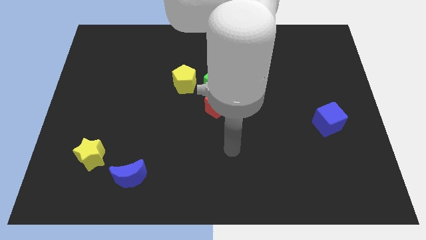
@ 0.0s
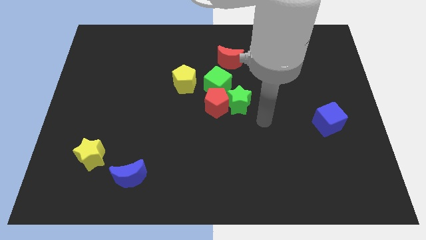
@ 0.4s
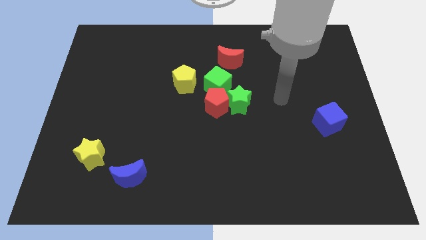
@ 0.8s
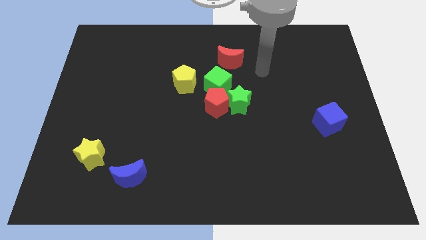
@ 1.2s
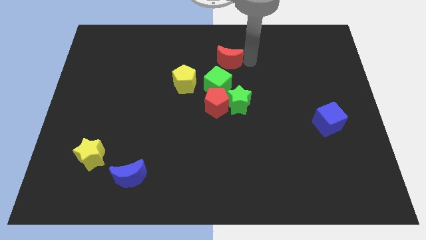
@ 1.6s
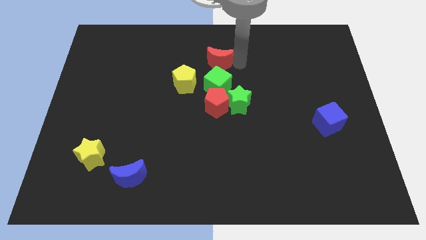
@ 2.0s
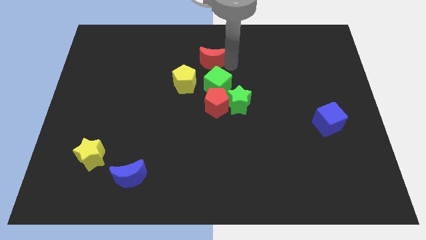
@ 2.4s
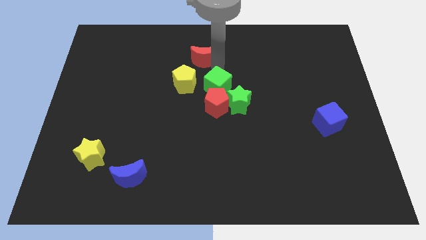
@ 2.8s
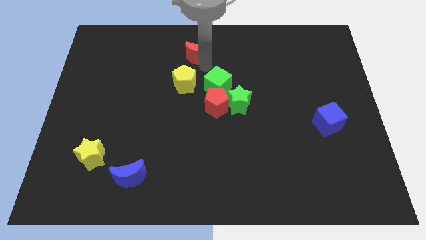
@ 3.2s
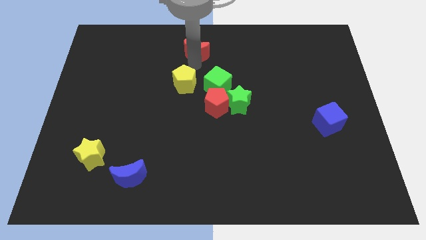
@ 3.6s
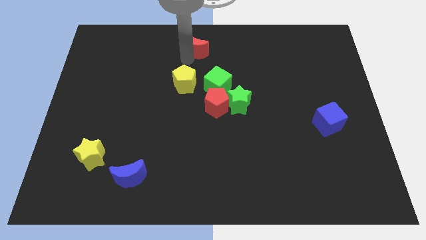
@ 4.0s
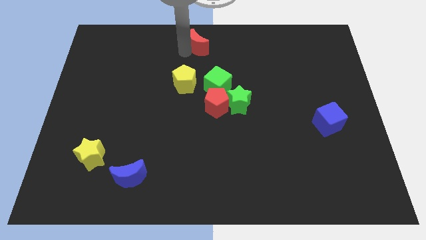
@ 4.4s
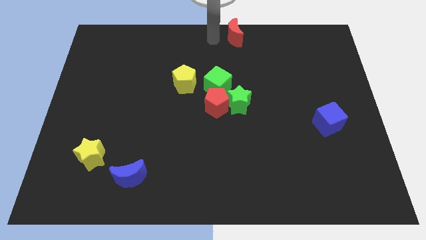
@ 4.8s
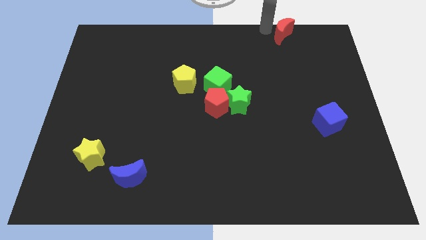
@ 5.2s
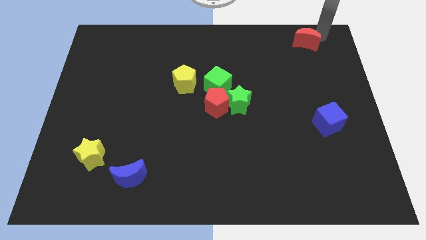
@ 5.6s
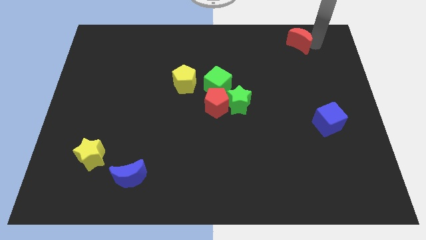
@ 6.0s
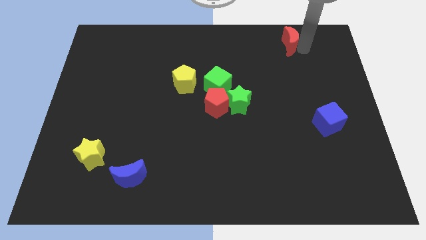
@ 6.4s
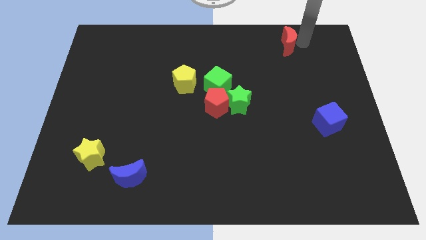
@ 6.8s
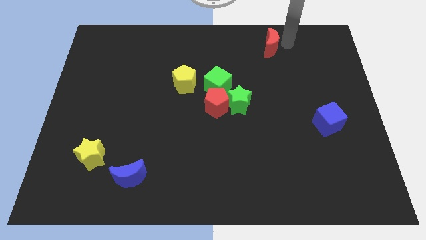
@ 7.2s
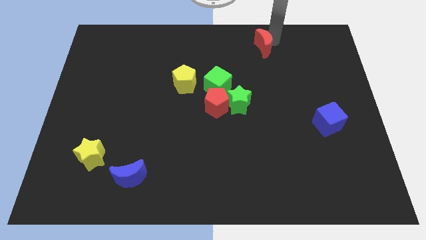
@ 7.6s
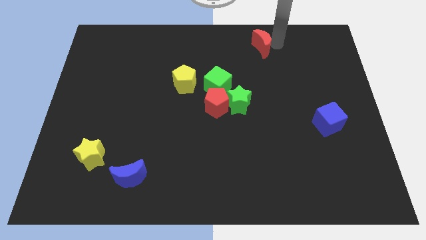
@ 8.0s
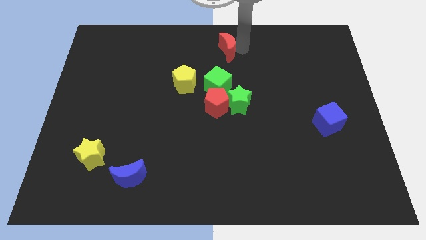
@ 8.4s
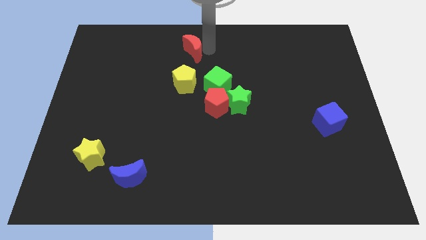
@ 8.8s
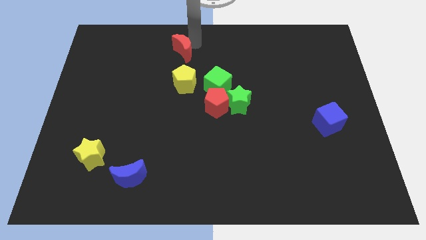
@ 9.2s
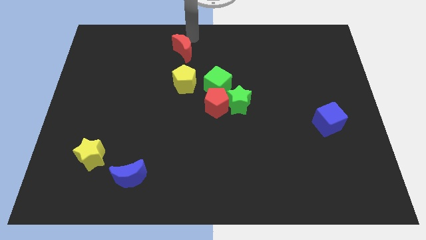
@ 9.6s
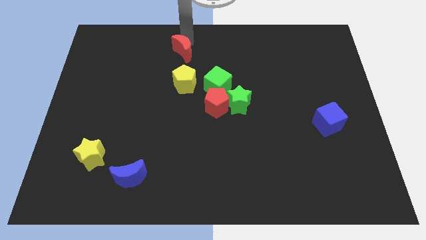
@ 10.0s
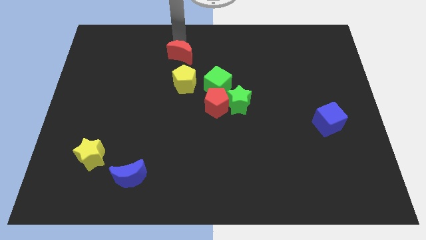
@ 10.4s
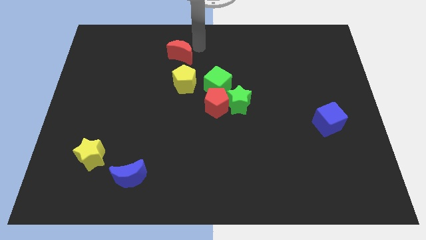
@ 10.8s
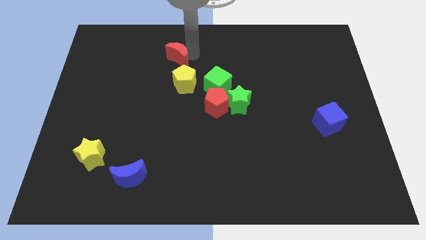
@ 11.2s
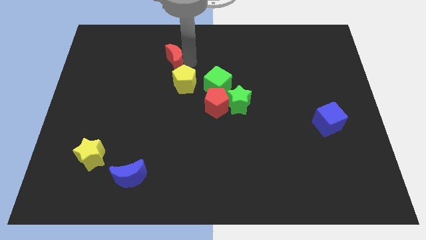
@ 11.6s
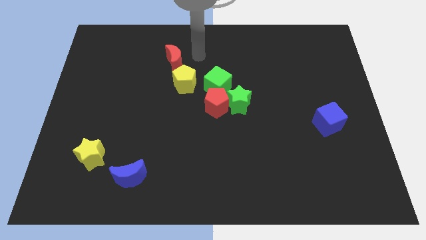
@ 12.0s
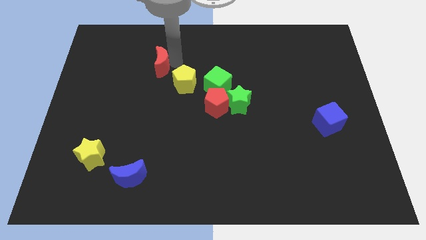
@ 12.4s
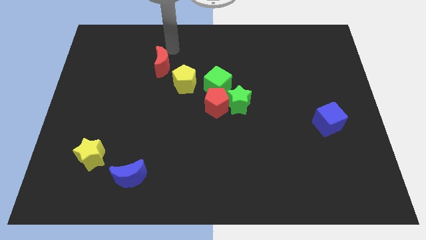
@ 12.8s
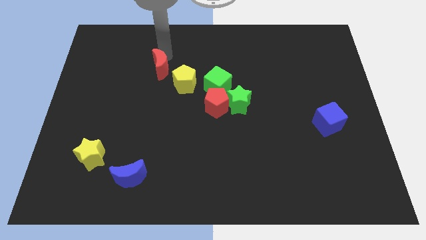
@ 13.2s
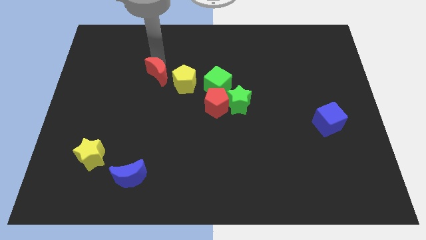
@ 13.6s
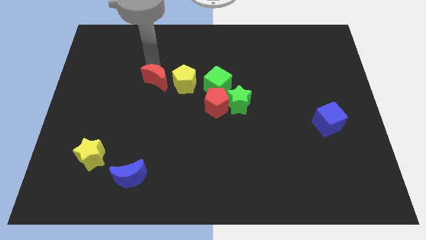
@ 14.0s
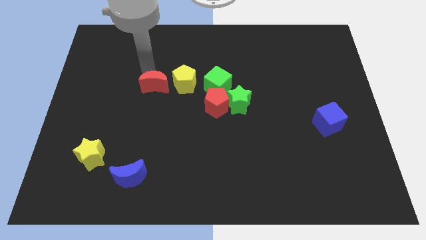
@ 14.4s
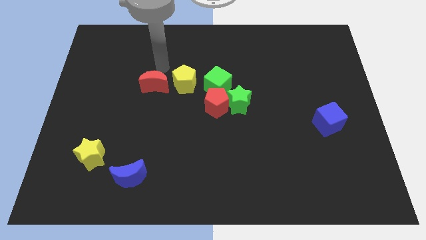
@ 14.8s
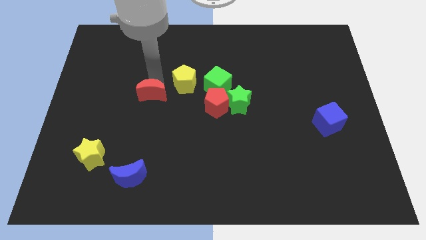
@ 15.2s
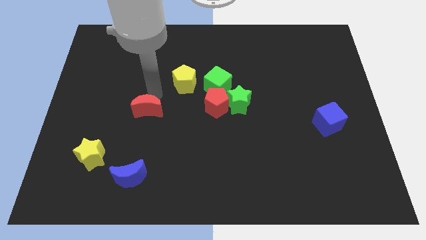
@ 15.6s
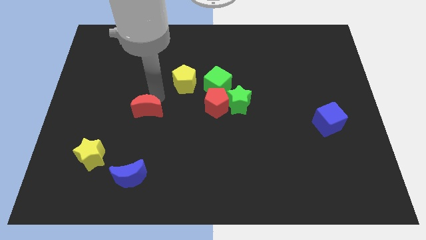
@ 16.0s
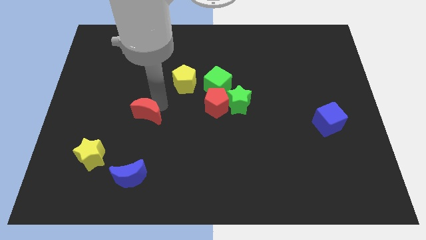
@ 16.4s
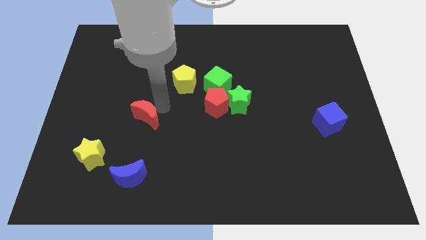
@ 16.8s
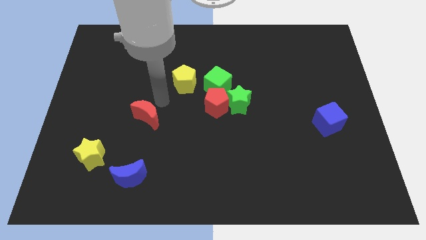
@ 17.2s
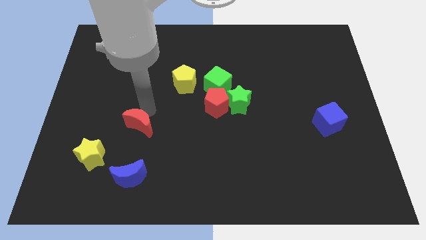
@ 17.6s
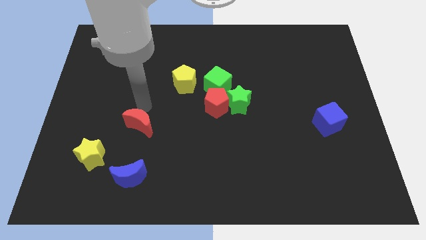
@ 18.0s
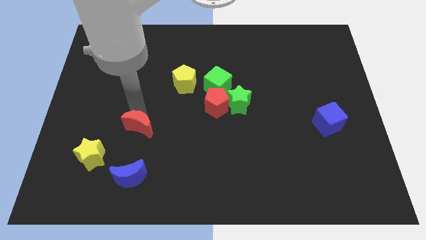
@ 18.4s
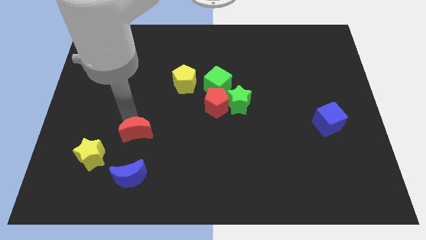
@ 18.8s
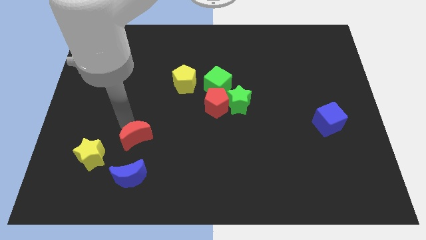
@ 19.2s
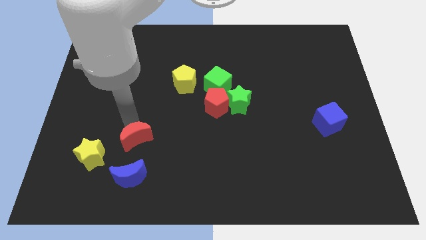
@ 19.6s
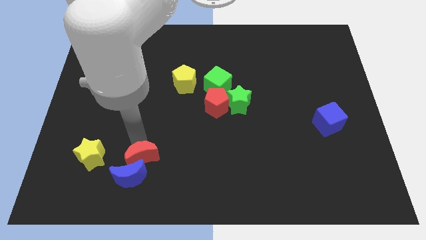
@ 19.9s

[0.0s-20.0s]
push the red moon next to the blue moon

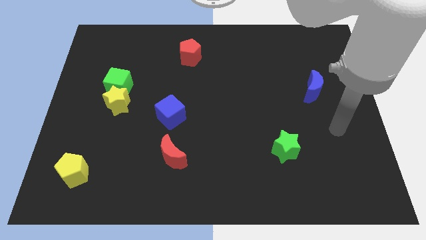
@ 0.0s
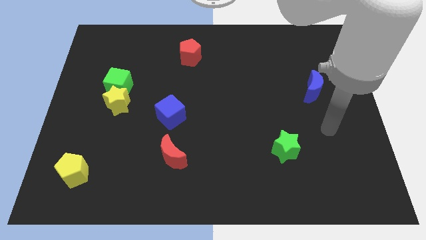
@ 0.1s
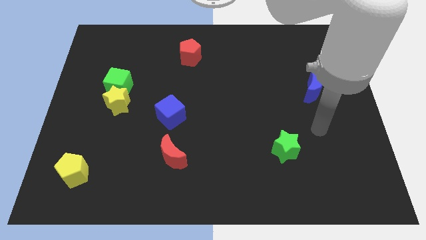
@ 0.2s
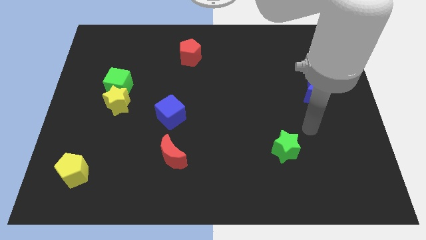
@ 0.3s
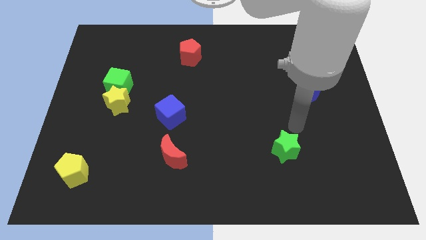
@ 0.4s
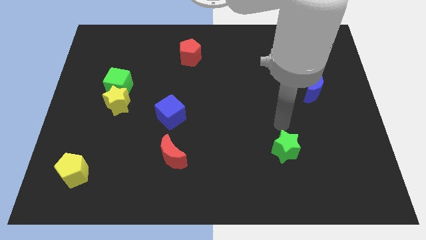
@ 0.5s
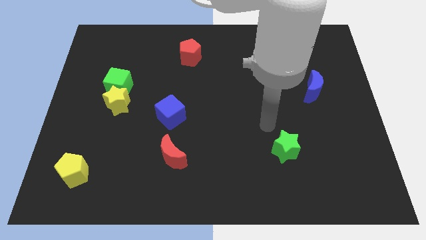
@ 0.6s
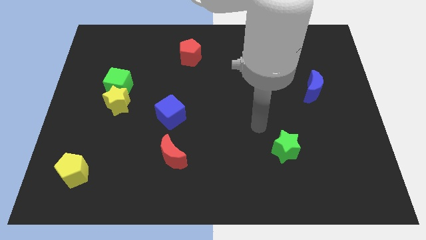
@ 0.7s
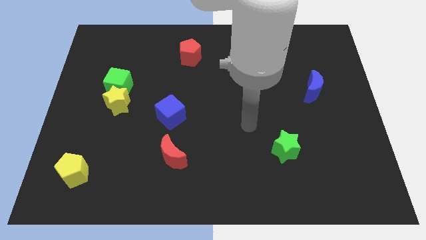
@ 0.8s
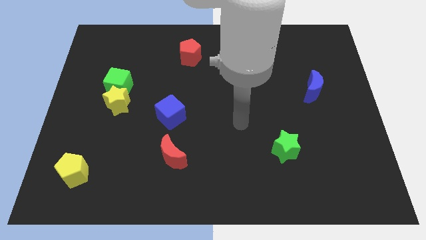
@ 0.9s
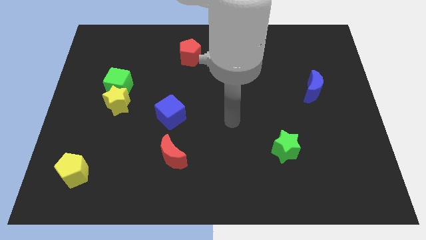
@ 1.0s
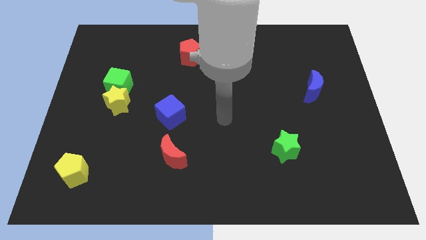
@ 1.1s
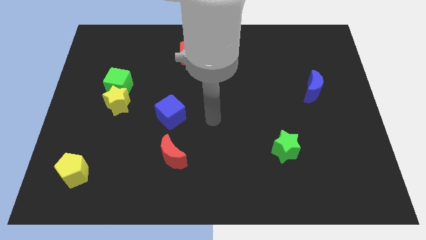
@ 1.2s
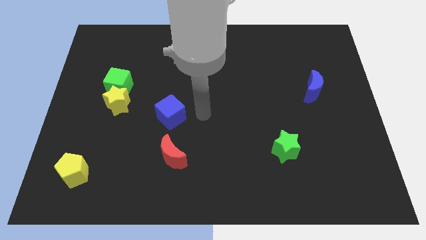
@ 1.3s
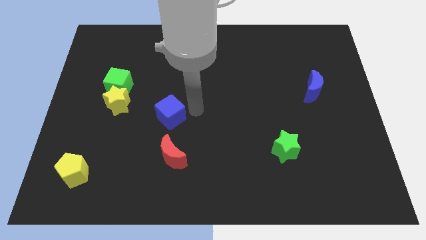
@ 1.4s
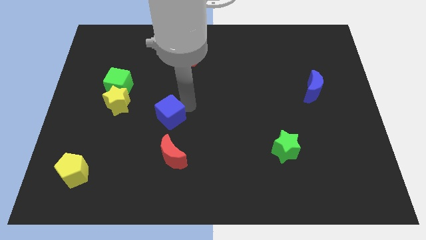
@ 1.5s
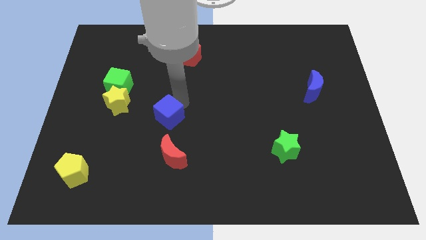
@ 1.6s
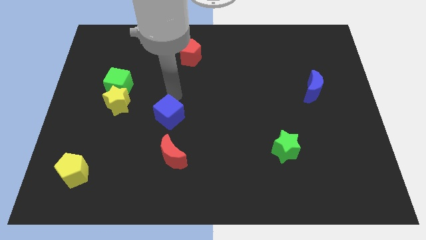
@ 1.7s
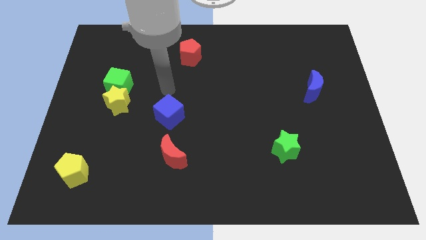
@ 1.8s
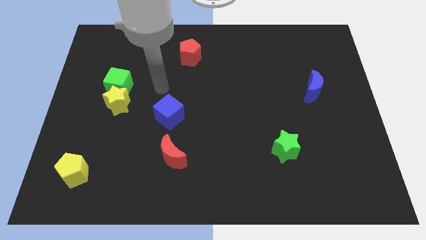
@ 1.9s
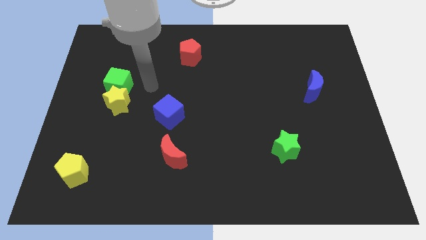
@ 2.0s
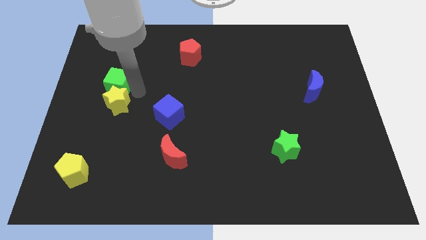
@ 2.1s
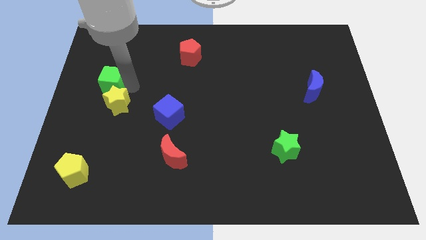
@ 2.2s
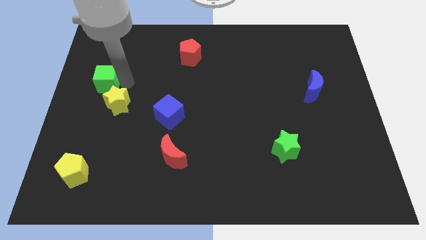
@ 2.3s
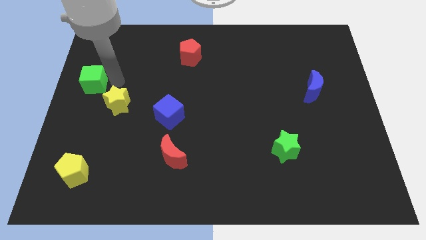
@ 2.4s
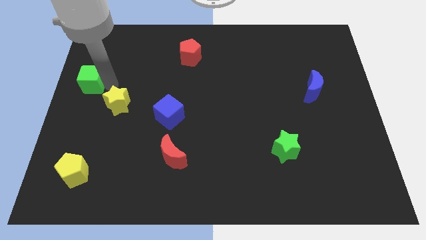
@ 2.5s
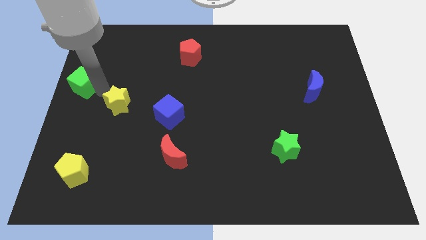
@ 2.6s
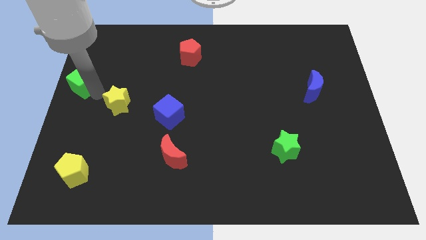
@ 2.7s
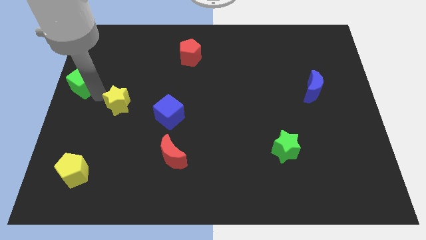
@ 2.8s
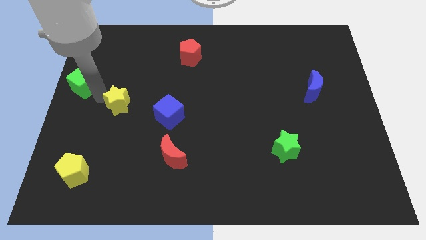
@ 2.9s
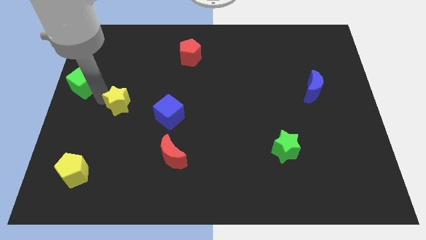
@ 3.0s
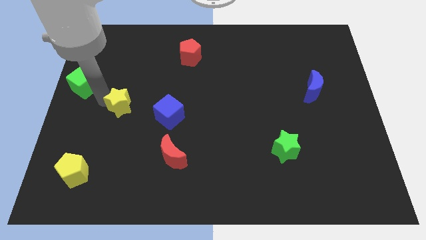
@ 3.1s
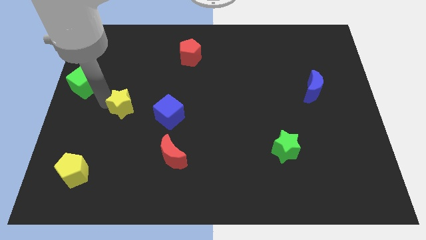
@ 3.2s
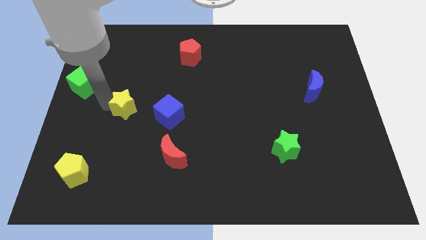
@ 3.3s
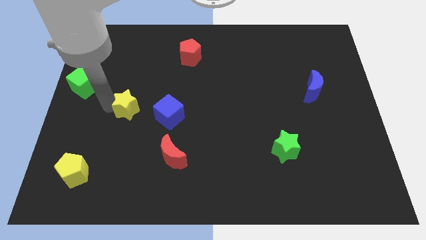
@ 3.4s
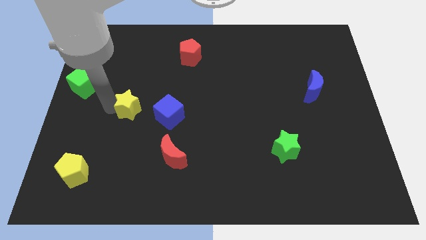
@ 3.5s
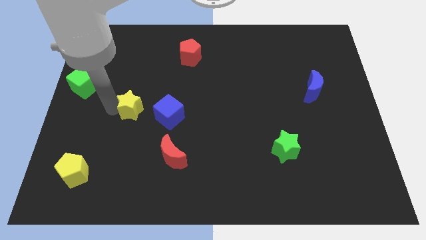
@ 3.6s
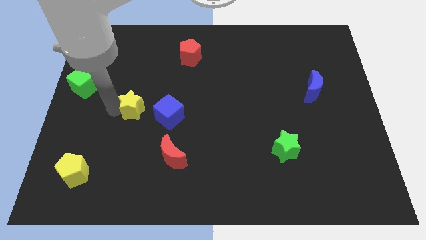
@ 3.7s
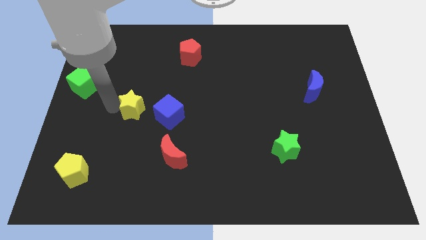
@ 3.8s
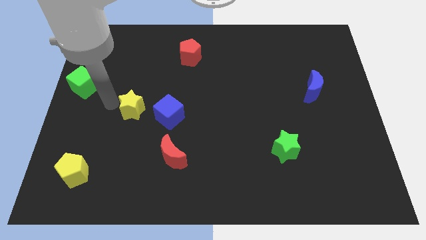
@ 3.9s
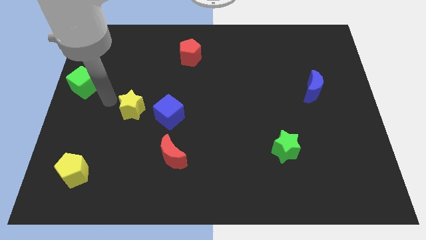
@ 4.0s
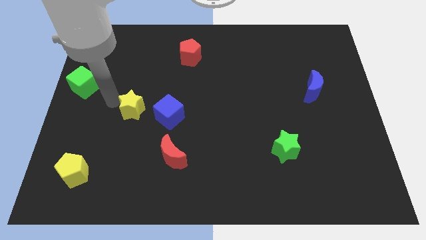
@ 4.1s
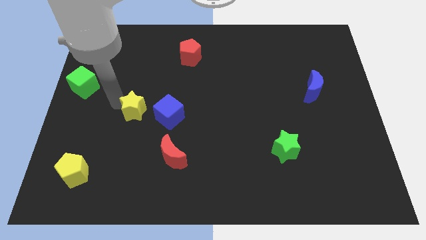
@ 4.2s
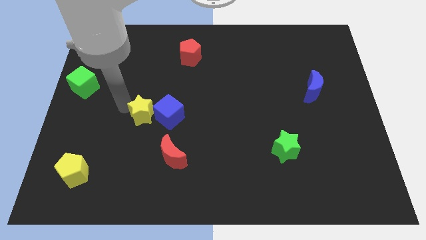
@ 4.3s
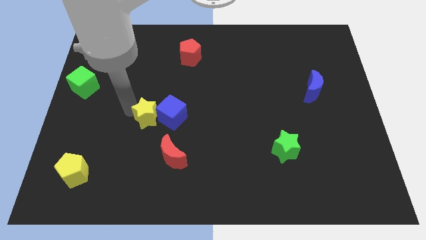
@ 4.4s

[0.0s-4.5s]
push the yellow star to the blue cube
